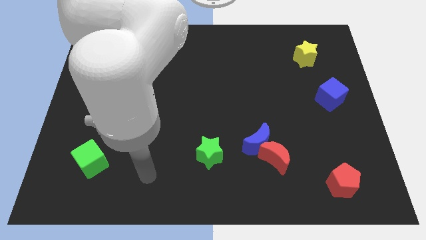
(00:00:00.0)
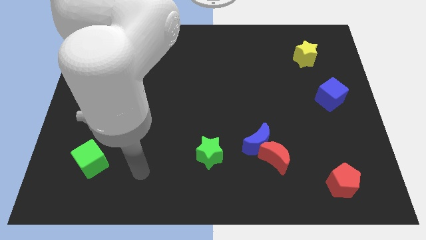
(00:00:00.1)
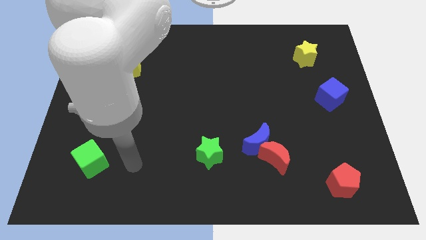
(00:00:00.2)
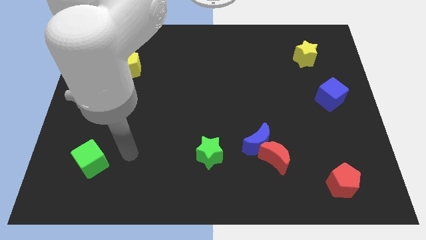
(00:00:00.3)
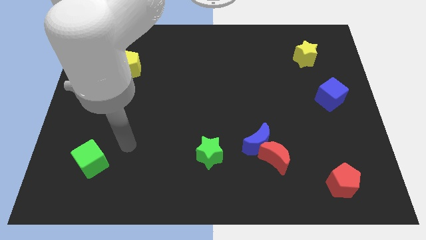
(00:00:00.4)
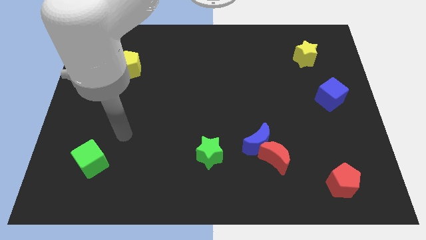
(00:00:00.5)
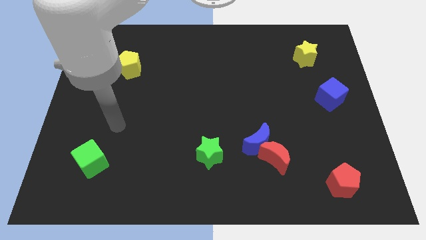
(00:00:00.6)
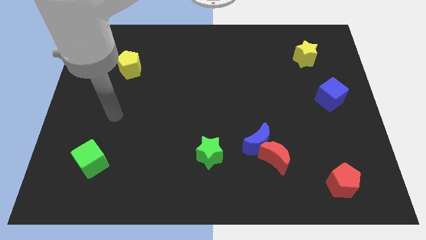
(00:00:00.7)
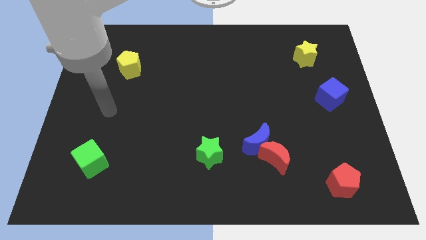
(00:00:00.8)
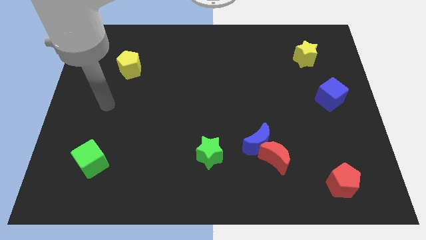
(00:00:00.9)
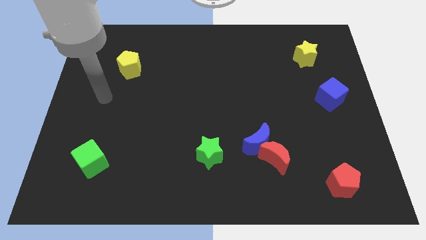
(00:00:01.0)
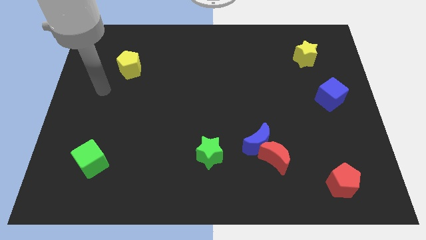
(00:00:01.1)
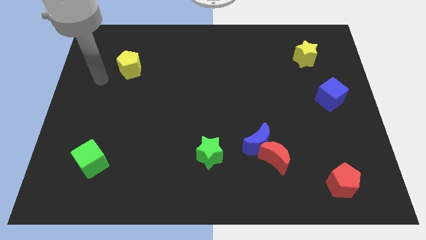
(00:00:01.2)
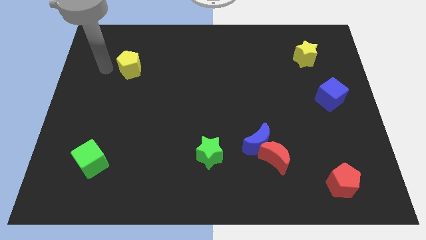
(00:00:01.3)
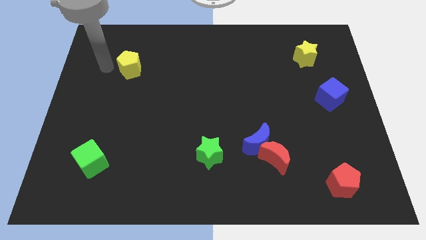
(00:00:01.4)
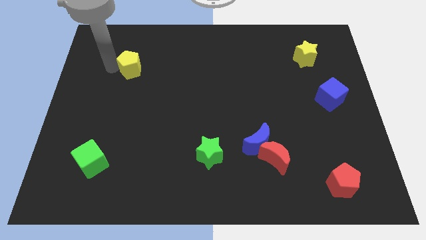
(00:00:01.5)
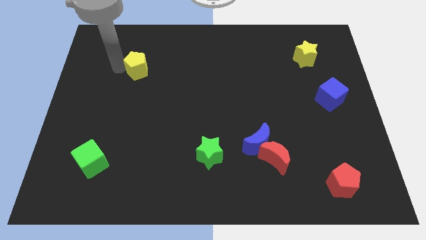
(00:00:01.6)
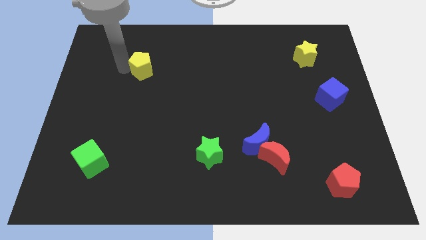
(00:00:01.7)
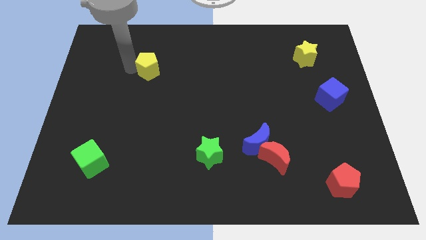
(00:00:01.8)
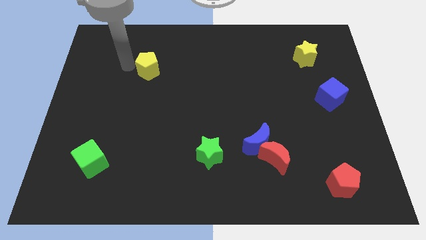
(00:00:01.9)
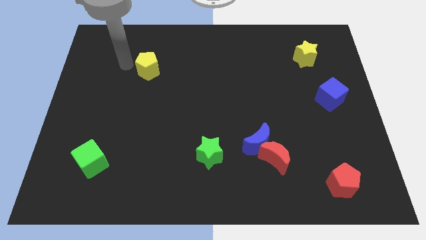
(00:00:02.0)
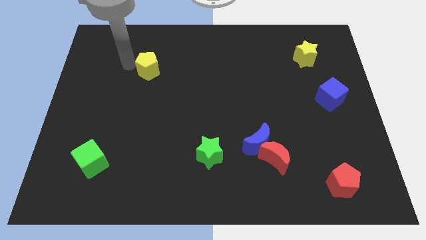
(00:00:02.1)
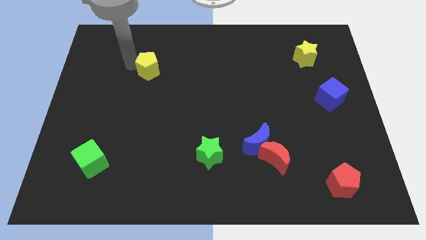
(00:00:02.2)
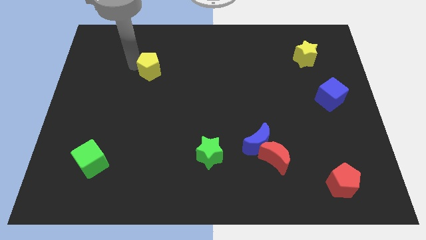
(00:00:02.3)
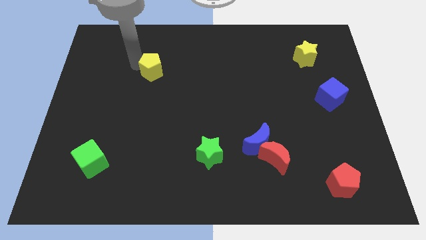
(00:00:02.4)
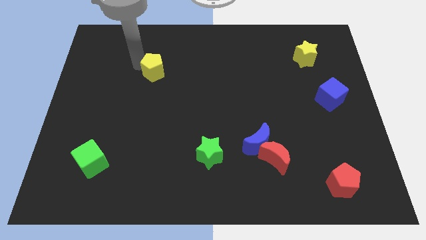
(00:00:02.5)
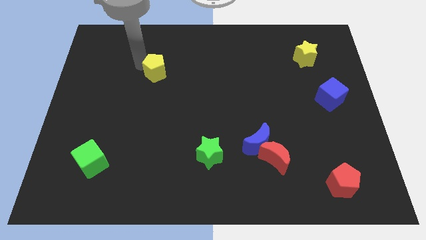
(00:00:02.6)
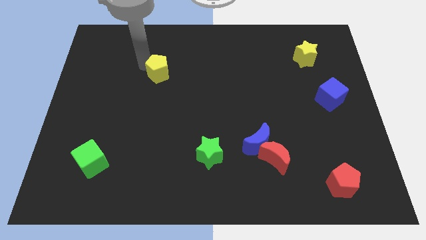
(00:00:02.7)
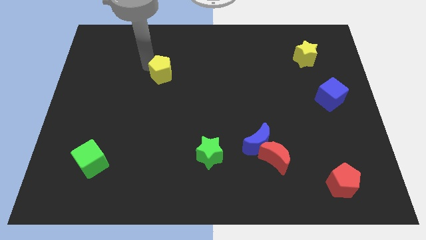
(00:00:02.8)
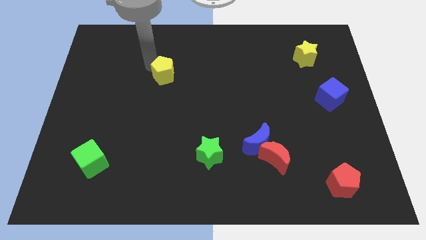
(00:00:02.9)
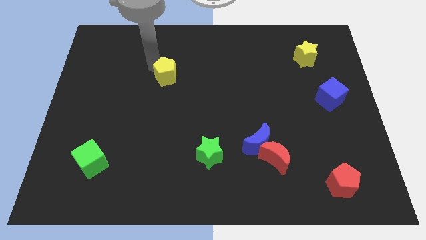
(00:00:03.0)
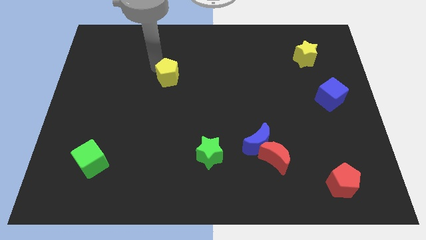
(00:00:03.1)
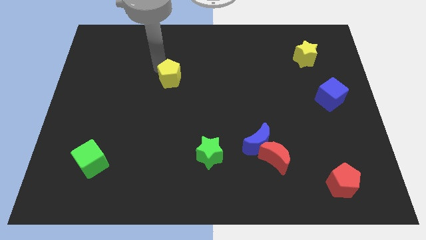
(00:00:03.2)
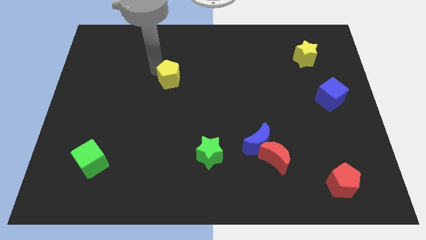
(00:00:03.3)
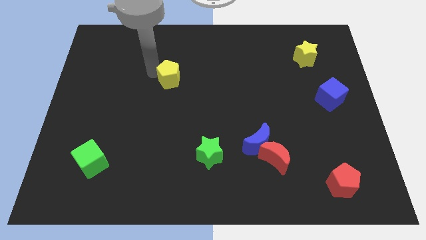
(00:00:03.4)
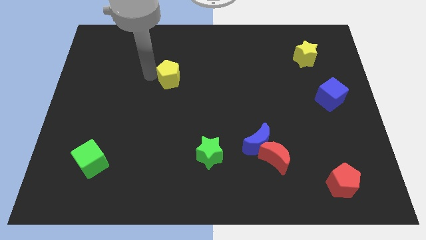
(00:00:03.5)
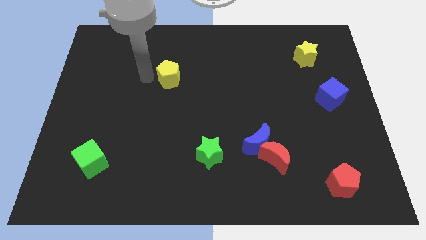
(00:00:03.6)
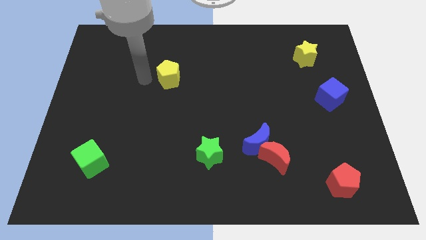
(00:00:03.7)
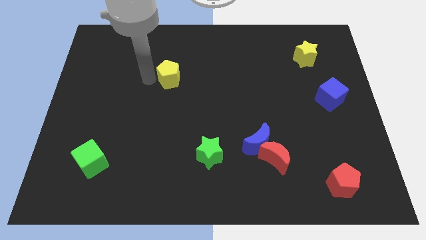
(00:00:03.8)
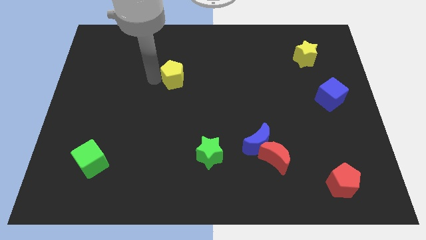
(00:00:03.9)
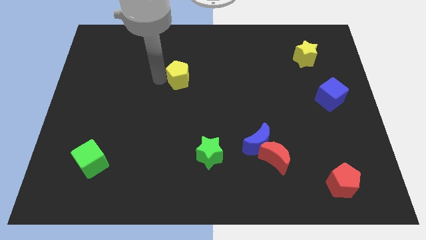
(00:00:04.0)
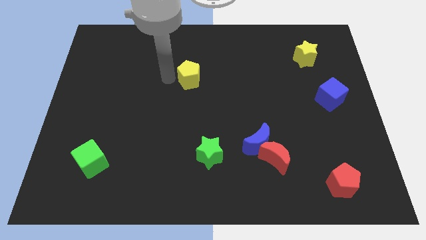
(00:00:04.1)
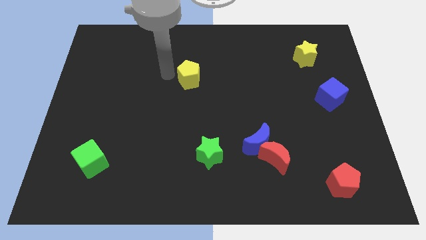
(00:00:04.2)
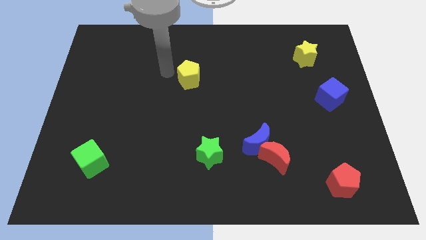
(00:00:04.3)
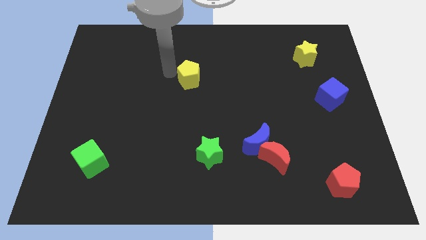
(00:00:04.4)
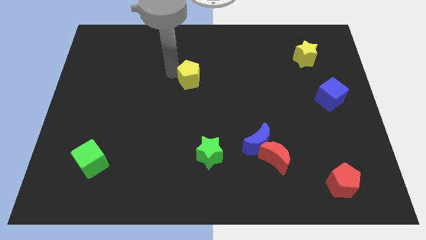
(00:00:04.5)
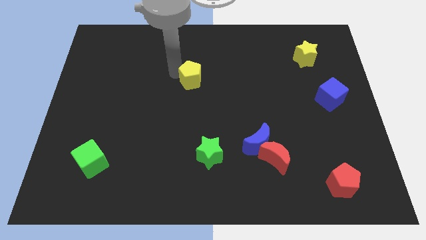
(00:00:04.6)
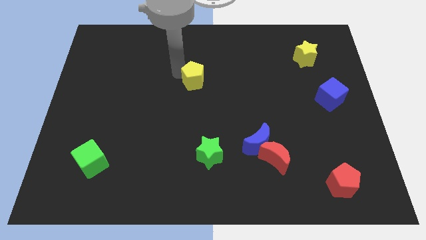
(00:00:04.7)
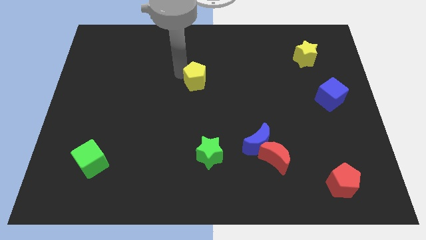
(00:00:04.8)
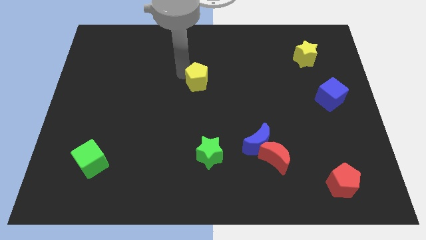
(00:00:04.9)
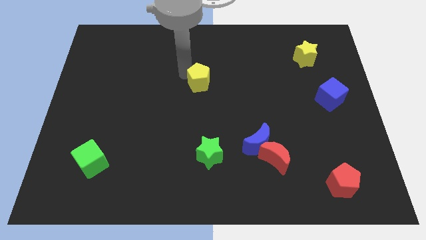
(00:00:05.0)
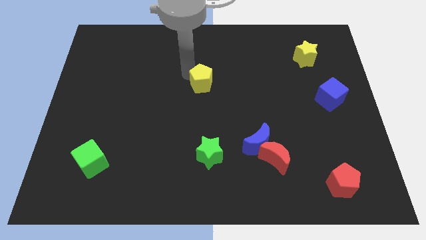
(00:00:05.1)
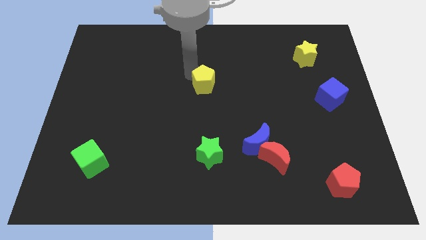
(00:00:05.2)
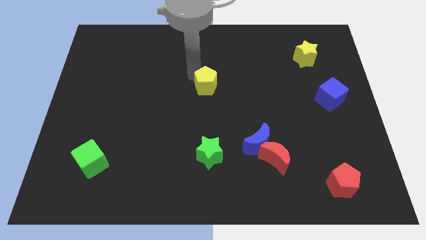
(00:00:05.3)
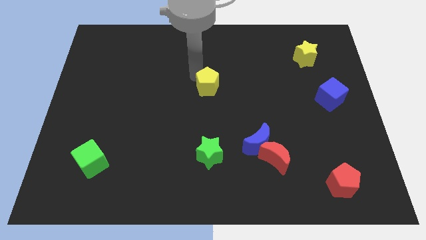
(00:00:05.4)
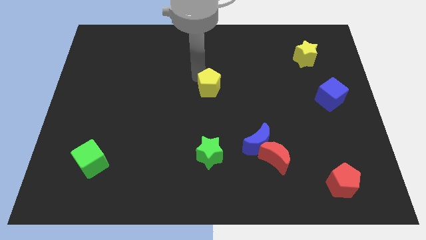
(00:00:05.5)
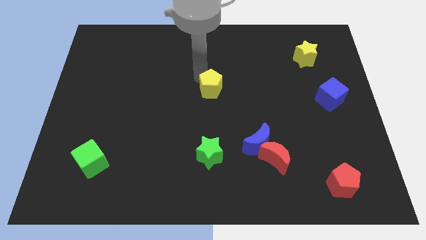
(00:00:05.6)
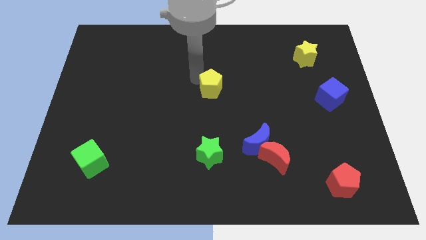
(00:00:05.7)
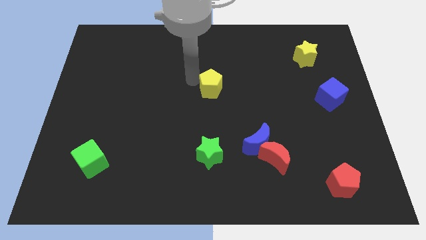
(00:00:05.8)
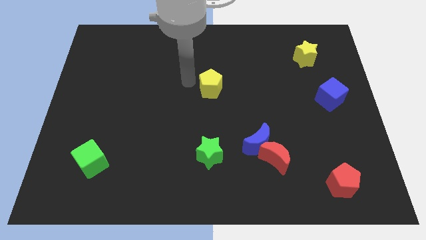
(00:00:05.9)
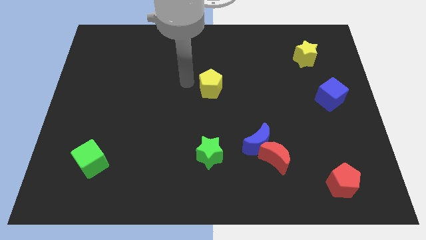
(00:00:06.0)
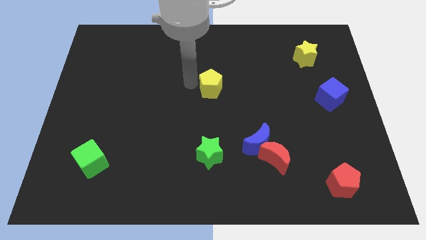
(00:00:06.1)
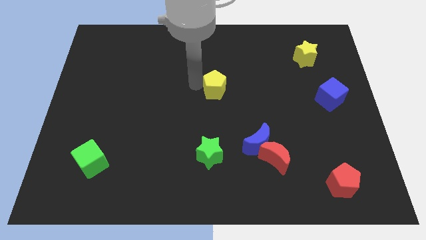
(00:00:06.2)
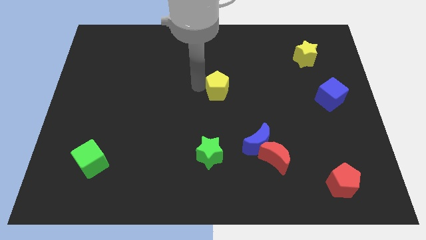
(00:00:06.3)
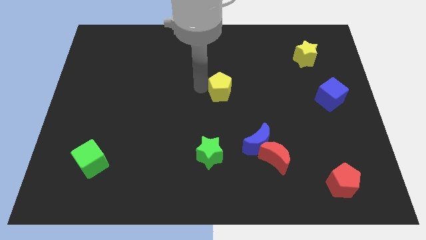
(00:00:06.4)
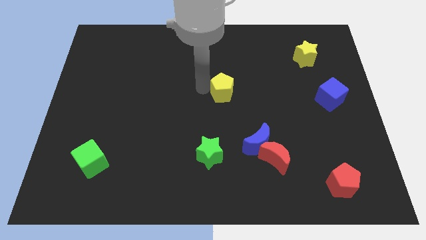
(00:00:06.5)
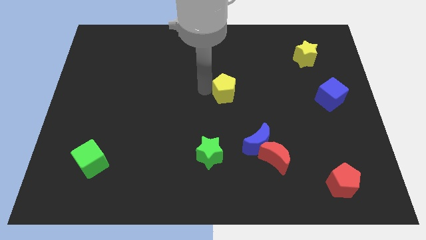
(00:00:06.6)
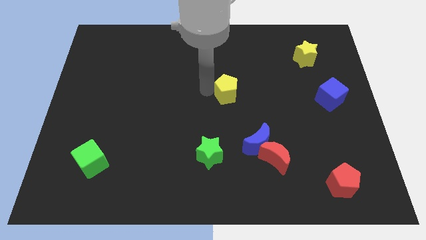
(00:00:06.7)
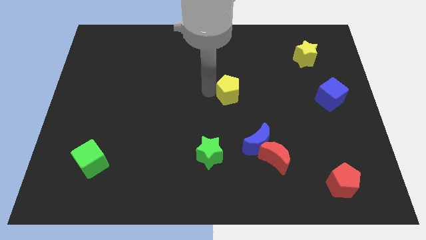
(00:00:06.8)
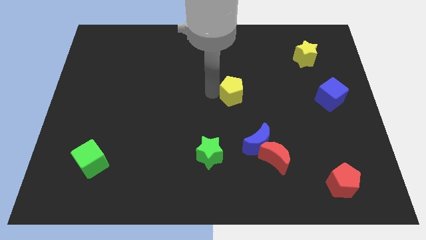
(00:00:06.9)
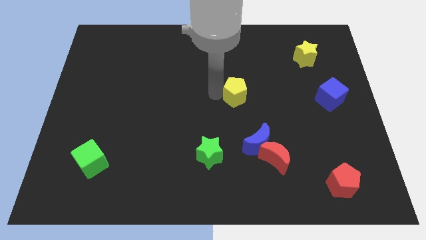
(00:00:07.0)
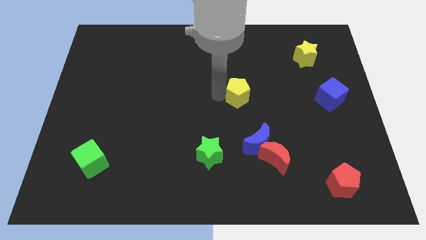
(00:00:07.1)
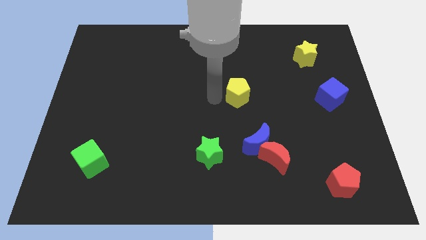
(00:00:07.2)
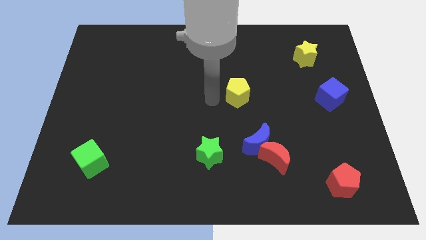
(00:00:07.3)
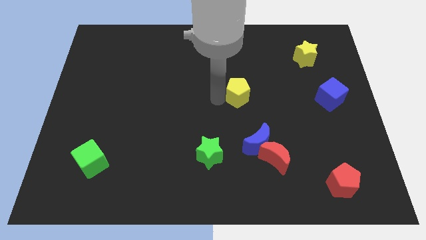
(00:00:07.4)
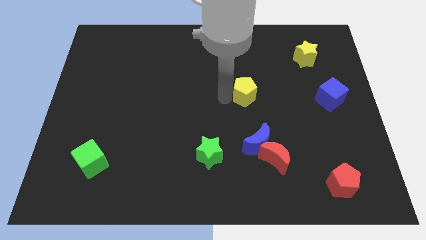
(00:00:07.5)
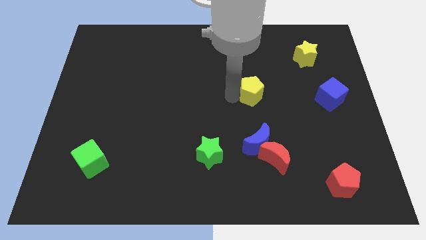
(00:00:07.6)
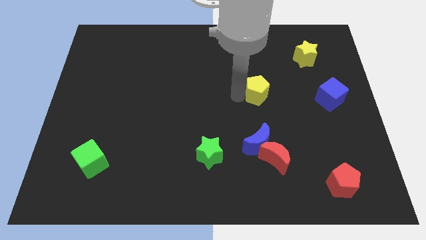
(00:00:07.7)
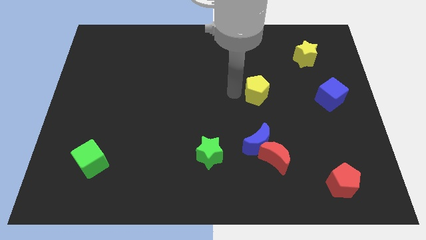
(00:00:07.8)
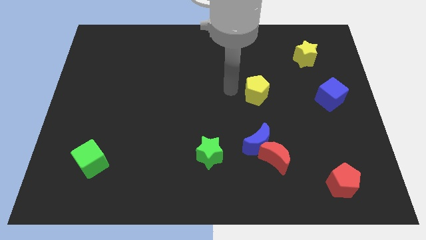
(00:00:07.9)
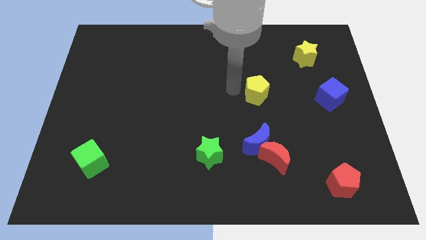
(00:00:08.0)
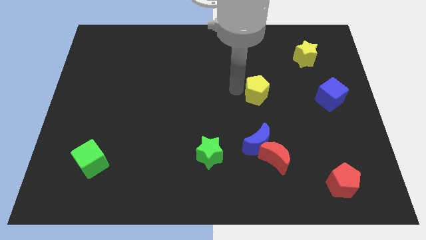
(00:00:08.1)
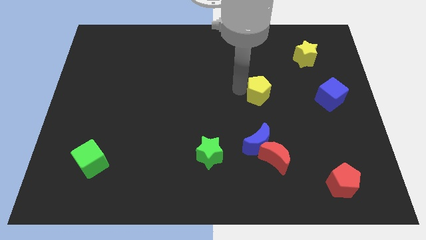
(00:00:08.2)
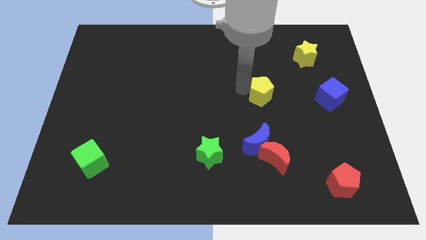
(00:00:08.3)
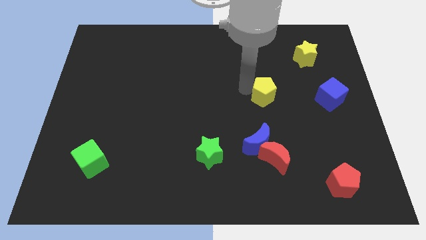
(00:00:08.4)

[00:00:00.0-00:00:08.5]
slide the yellow pentagon to the left of the blue cube
